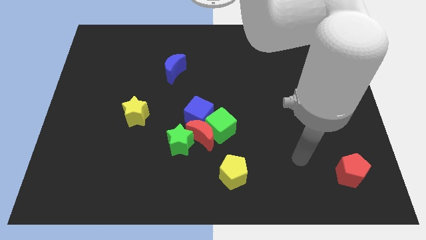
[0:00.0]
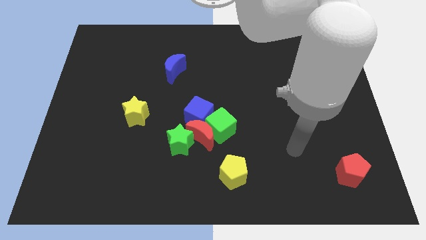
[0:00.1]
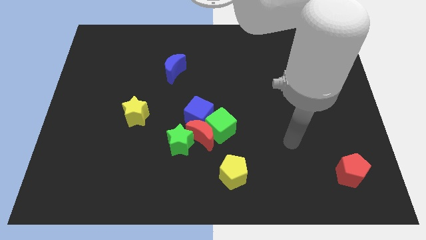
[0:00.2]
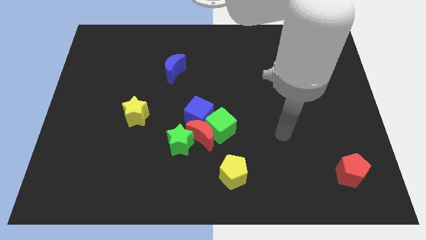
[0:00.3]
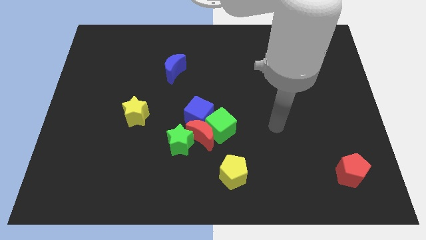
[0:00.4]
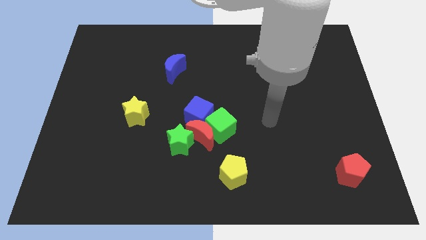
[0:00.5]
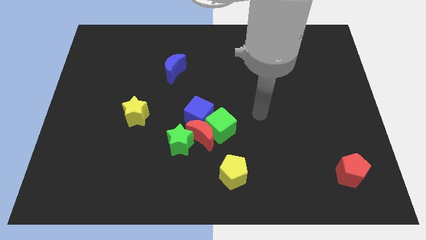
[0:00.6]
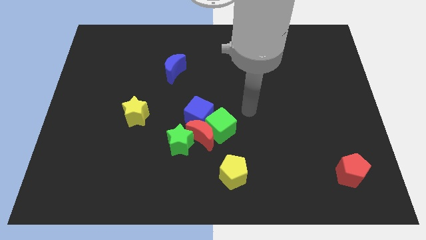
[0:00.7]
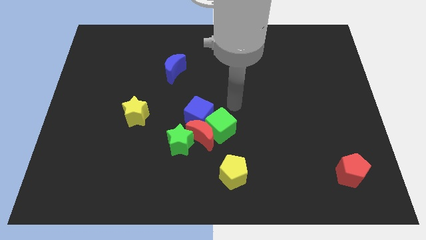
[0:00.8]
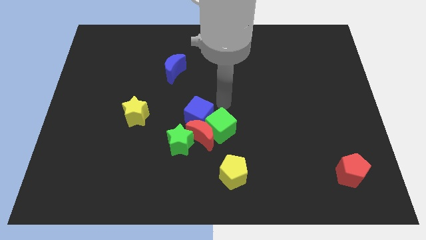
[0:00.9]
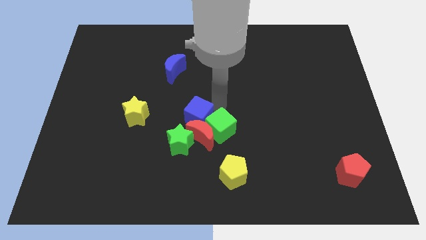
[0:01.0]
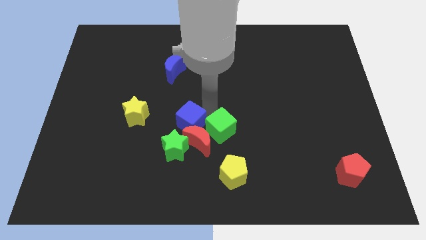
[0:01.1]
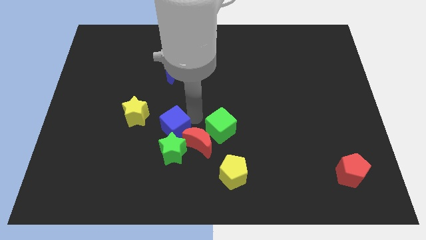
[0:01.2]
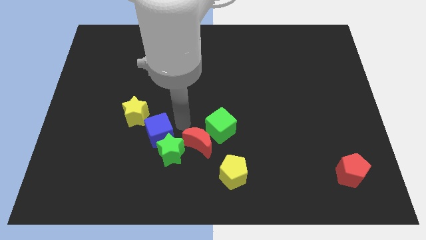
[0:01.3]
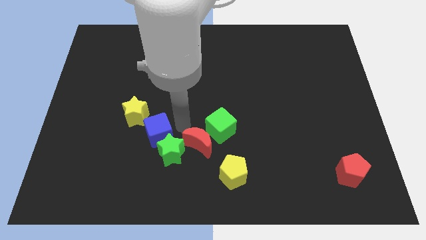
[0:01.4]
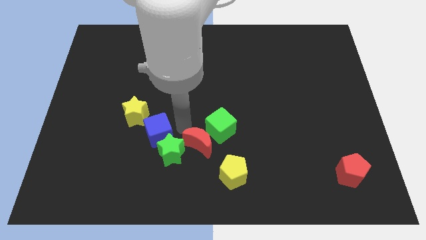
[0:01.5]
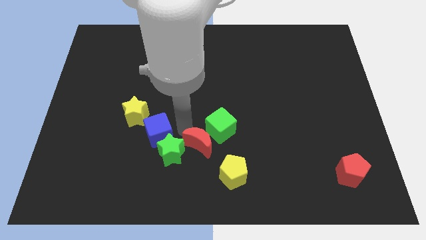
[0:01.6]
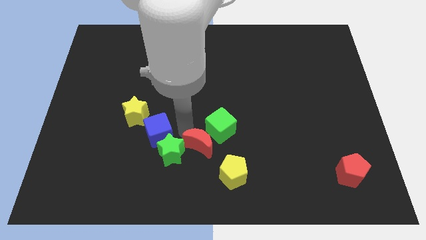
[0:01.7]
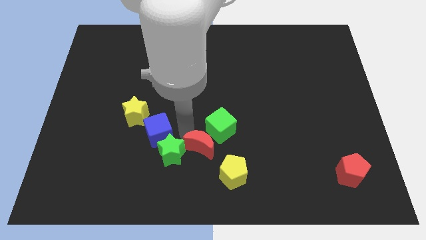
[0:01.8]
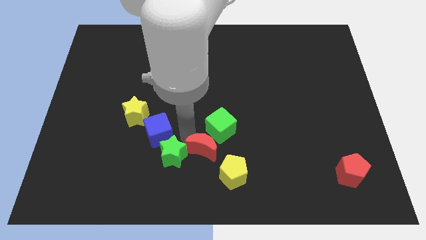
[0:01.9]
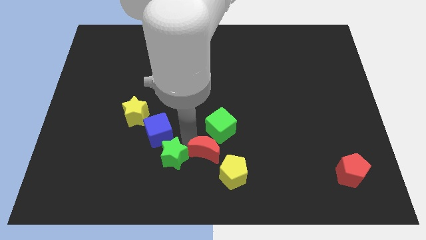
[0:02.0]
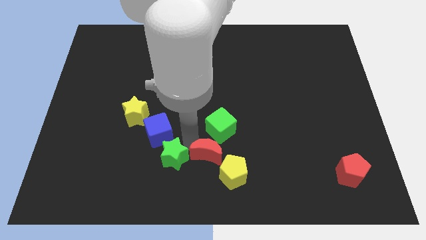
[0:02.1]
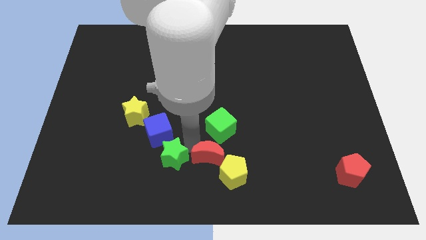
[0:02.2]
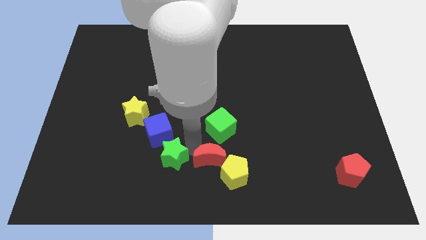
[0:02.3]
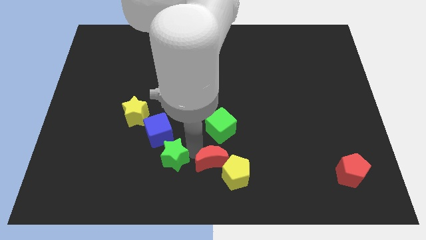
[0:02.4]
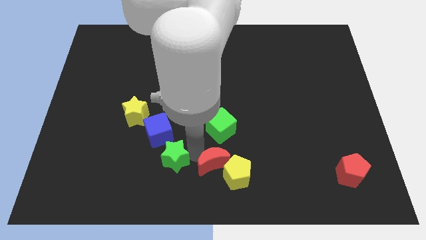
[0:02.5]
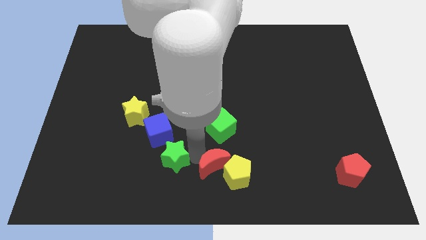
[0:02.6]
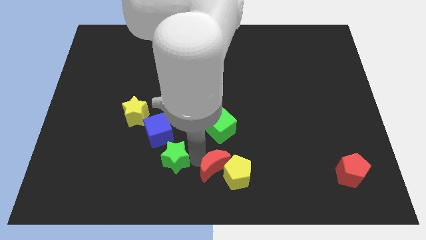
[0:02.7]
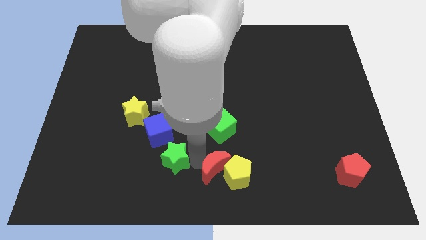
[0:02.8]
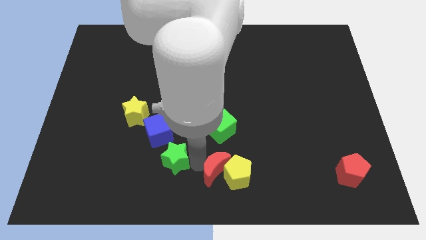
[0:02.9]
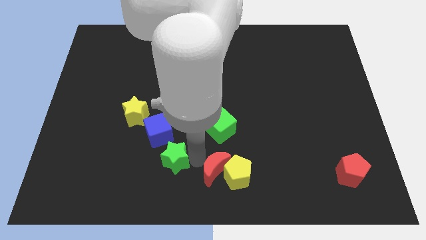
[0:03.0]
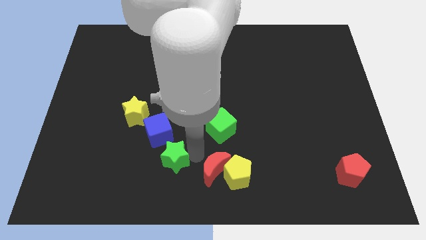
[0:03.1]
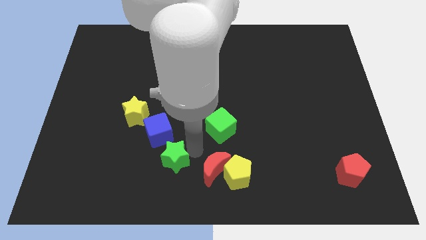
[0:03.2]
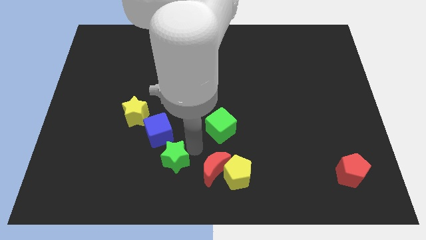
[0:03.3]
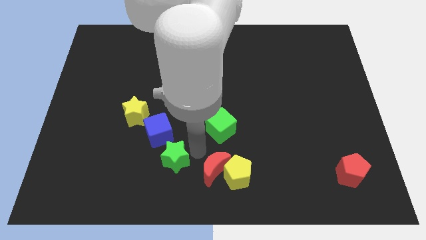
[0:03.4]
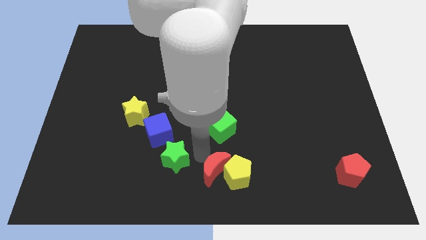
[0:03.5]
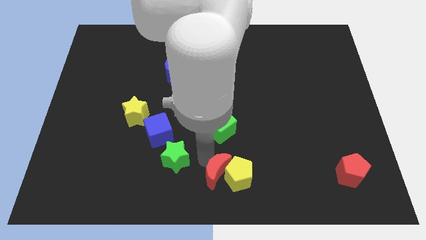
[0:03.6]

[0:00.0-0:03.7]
separate the red moon from the group of blocks

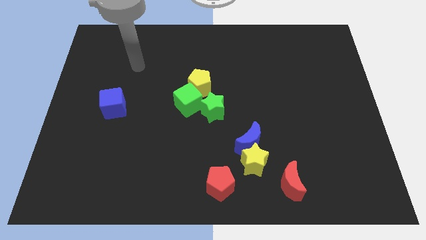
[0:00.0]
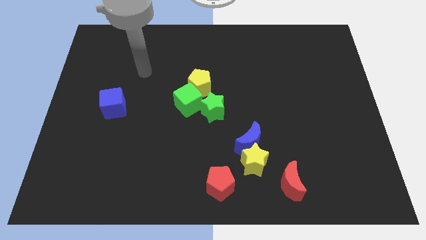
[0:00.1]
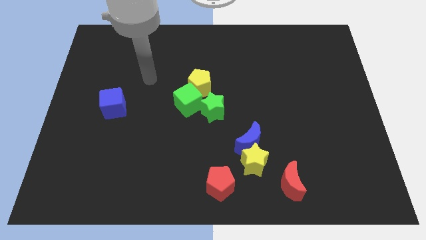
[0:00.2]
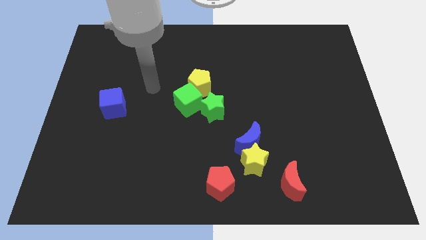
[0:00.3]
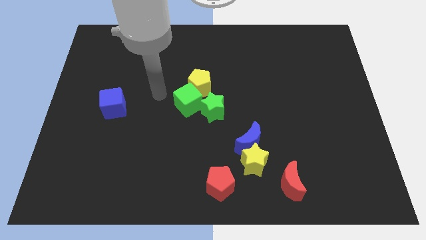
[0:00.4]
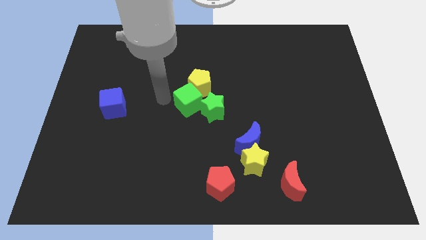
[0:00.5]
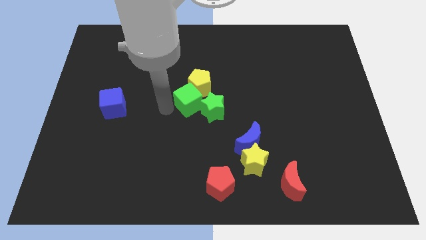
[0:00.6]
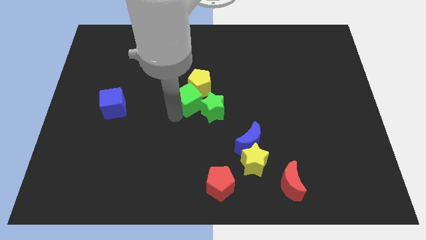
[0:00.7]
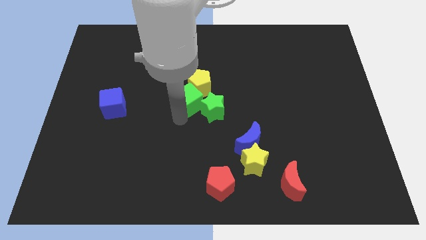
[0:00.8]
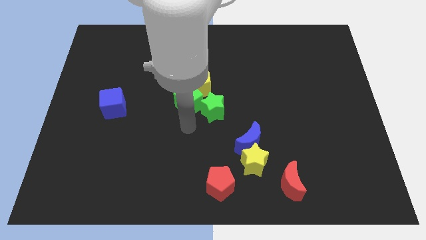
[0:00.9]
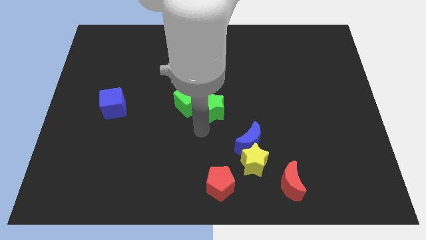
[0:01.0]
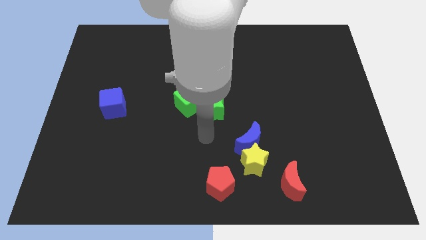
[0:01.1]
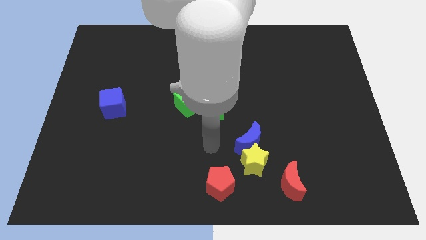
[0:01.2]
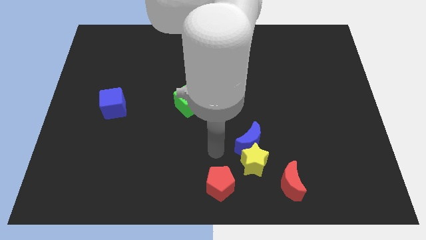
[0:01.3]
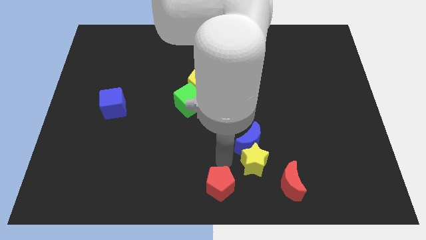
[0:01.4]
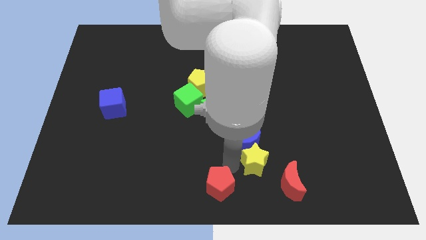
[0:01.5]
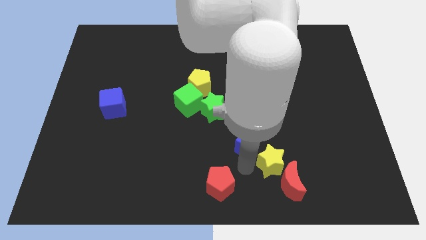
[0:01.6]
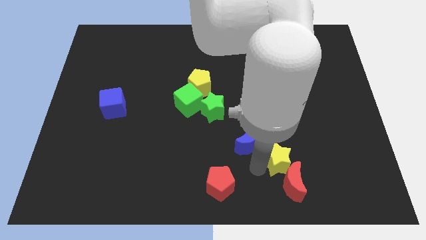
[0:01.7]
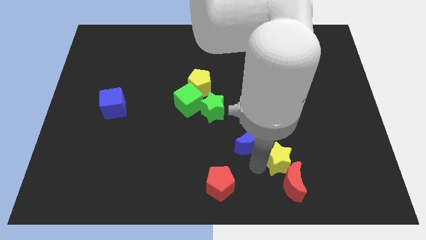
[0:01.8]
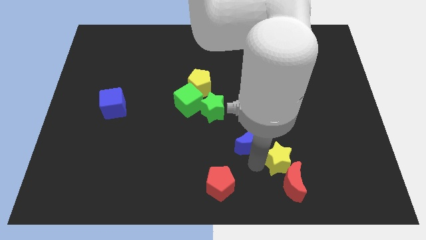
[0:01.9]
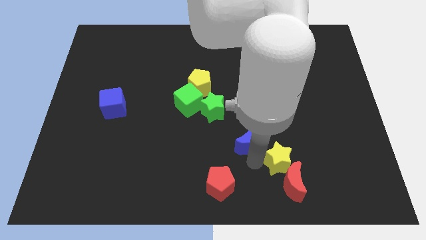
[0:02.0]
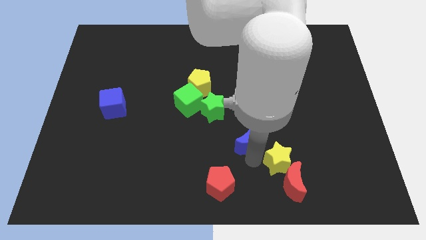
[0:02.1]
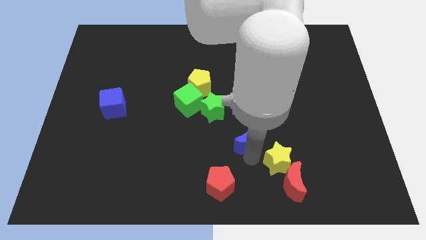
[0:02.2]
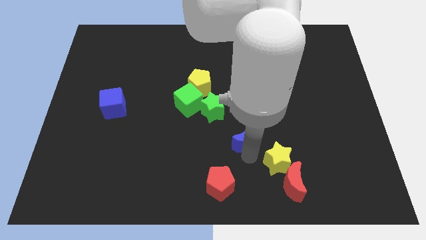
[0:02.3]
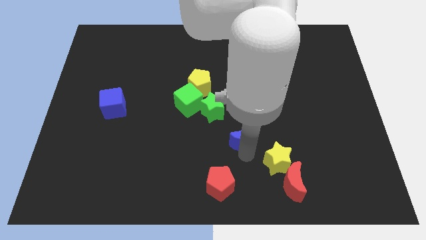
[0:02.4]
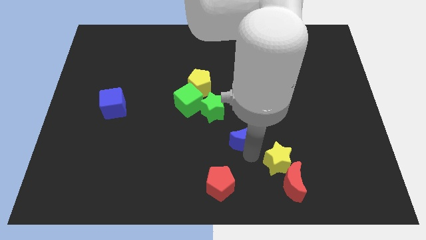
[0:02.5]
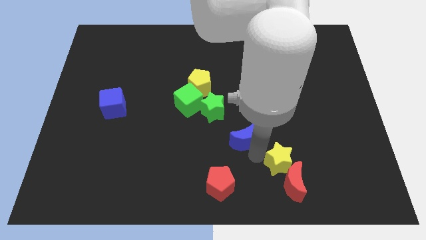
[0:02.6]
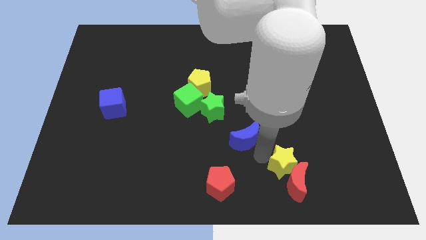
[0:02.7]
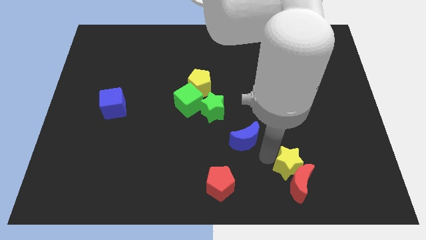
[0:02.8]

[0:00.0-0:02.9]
separate the blue moon from the yellow star

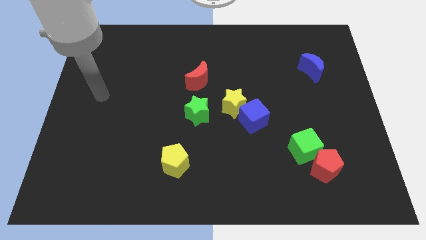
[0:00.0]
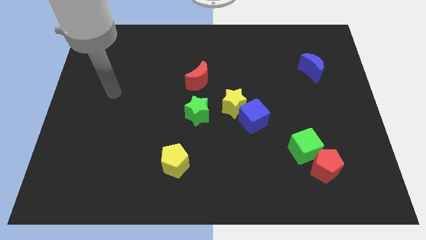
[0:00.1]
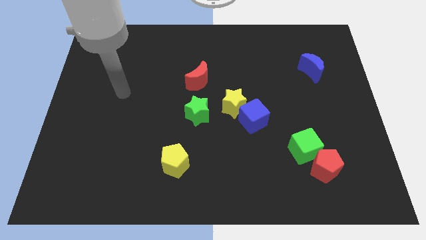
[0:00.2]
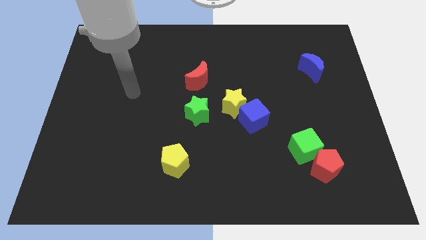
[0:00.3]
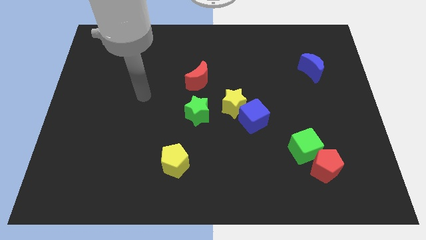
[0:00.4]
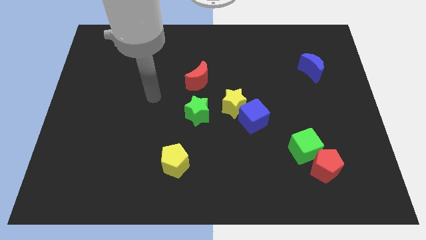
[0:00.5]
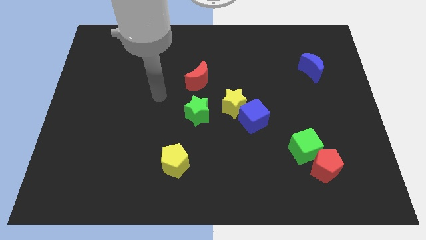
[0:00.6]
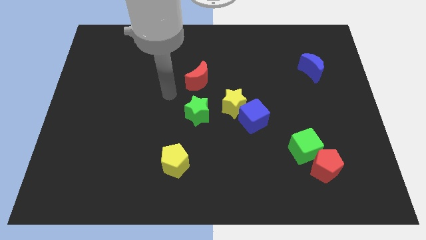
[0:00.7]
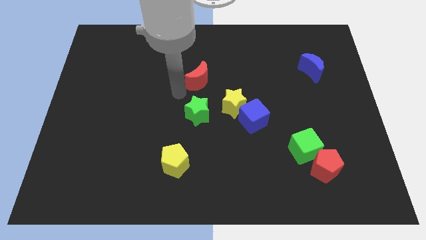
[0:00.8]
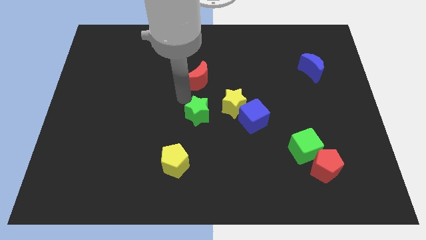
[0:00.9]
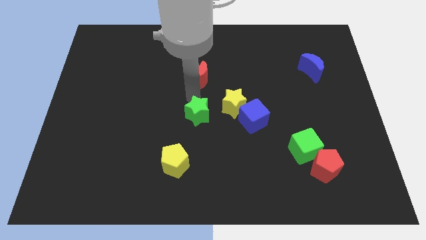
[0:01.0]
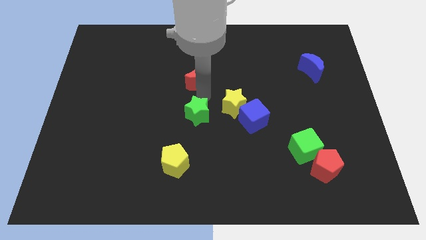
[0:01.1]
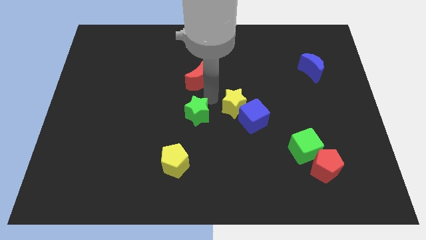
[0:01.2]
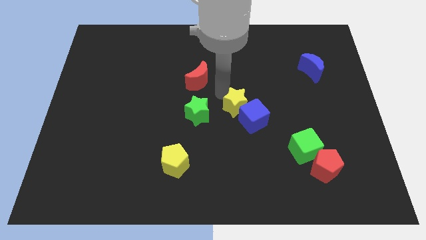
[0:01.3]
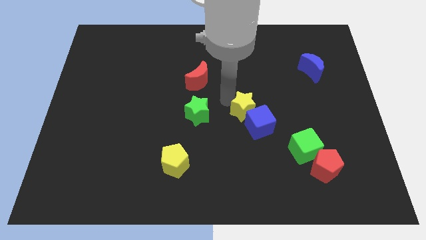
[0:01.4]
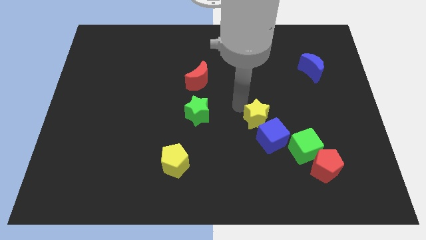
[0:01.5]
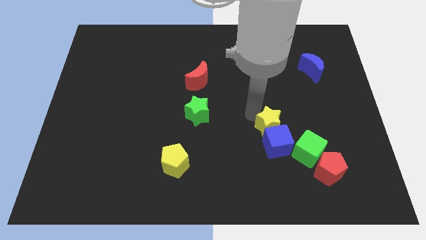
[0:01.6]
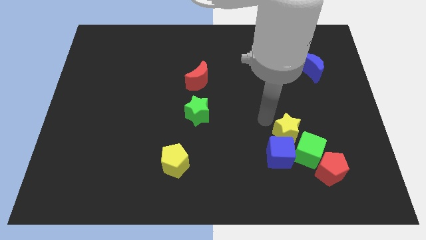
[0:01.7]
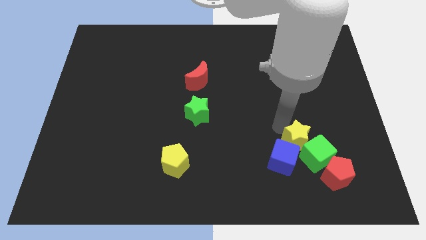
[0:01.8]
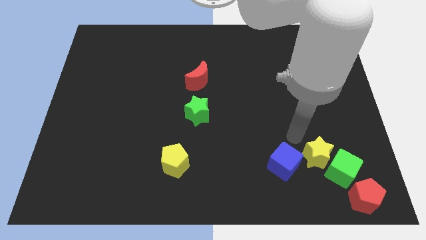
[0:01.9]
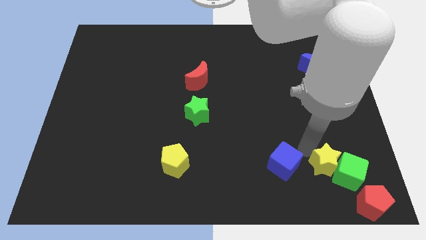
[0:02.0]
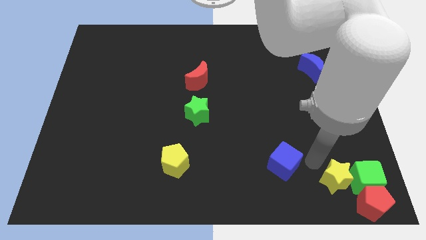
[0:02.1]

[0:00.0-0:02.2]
separate the blue cube from the yellow star

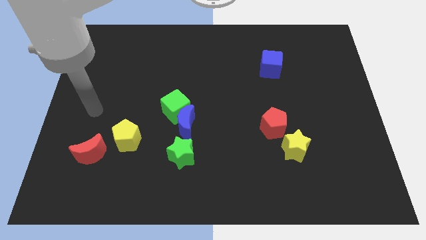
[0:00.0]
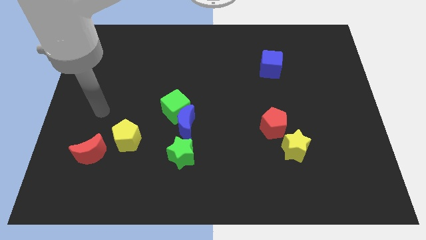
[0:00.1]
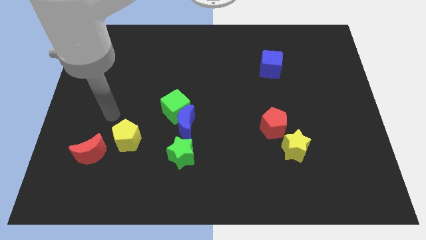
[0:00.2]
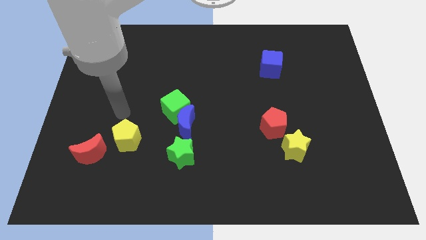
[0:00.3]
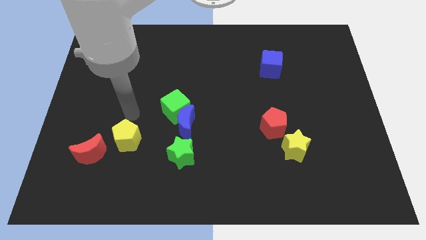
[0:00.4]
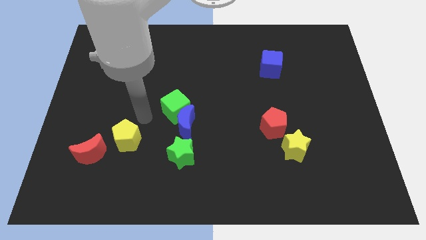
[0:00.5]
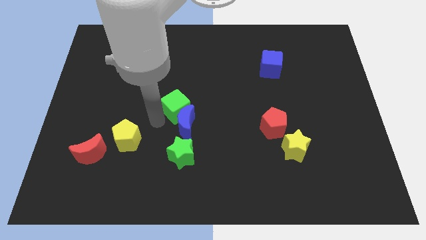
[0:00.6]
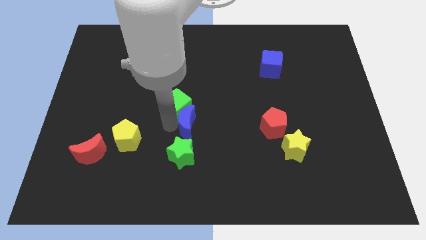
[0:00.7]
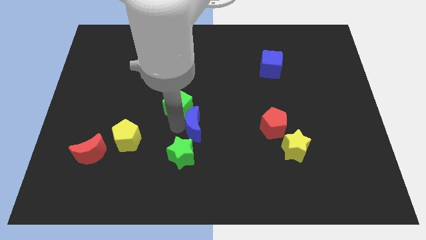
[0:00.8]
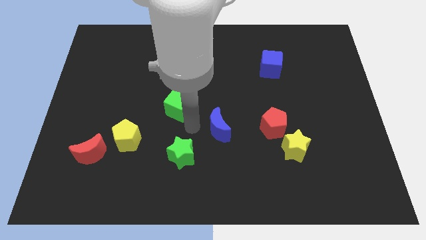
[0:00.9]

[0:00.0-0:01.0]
separate the green cube from the blue moon
